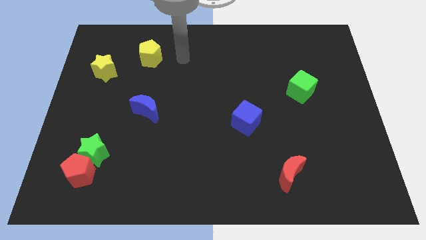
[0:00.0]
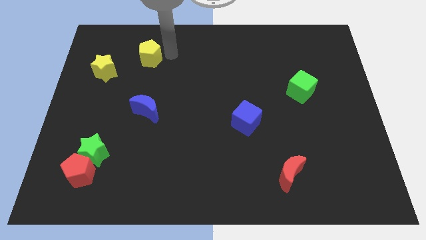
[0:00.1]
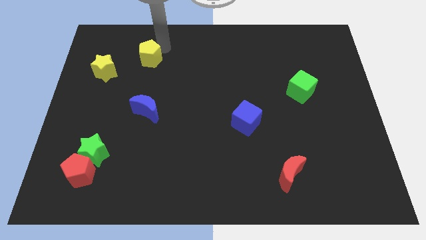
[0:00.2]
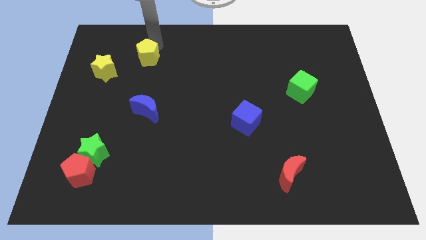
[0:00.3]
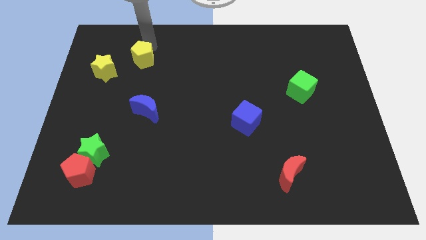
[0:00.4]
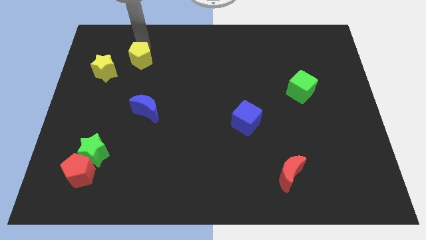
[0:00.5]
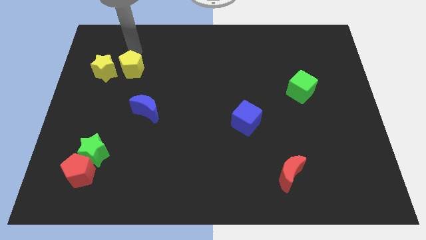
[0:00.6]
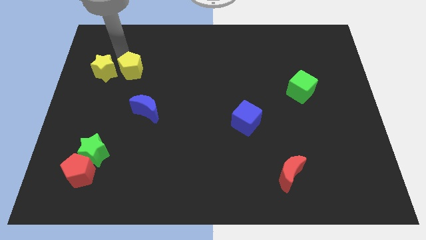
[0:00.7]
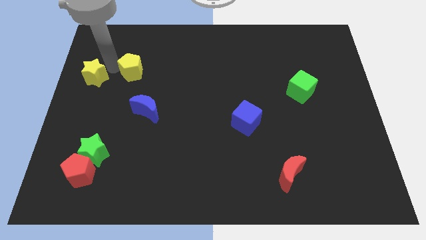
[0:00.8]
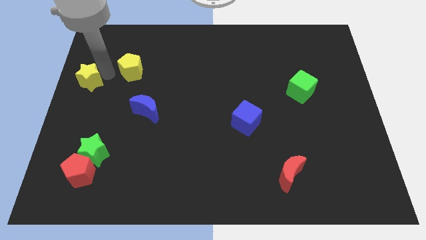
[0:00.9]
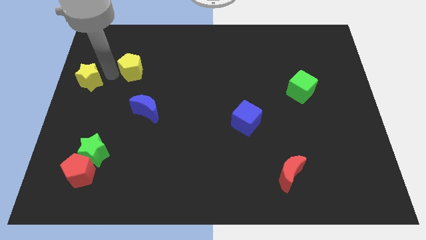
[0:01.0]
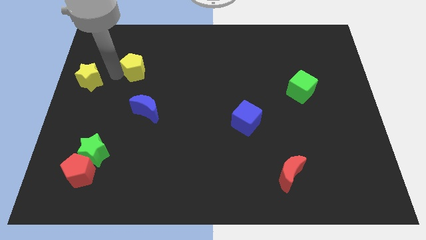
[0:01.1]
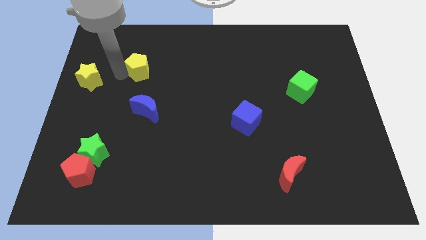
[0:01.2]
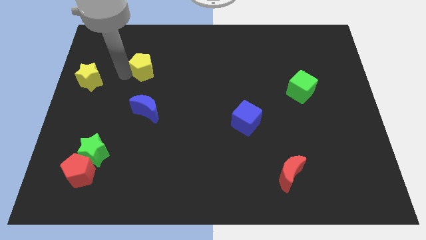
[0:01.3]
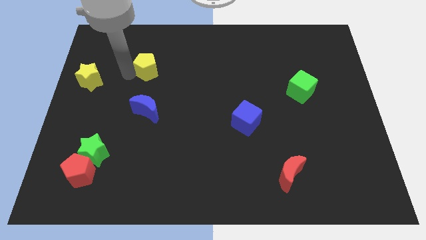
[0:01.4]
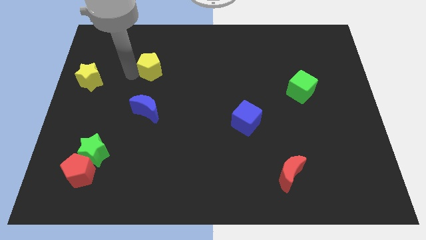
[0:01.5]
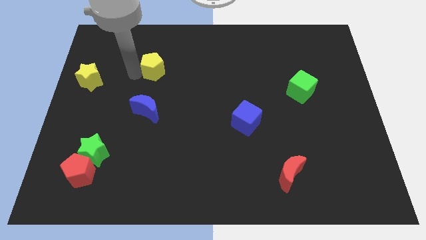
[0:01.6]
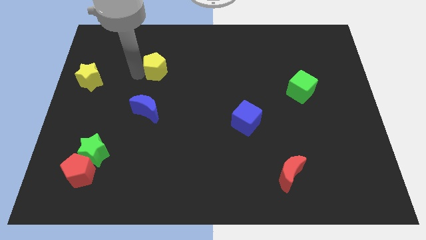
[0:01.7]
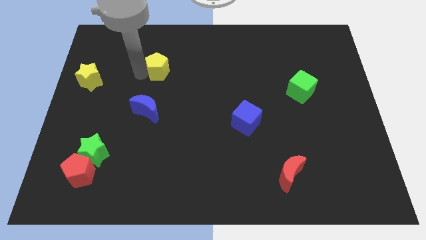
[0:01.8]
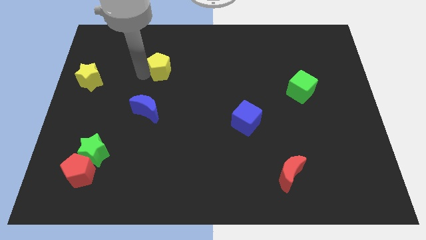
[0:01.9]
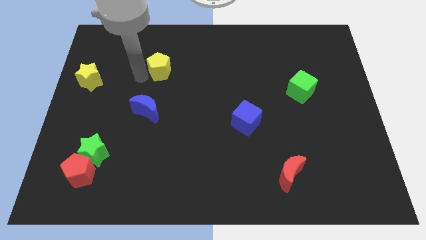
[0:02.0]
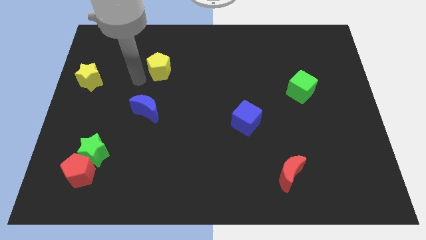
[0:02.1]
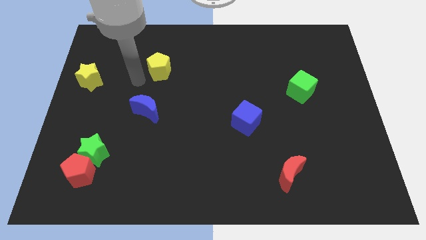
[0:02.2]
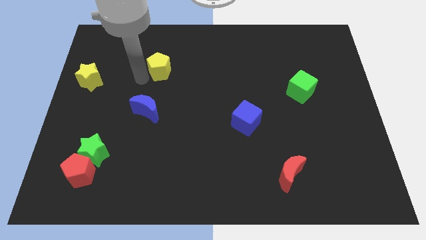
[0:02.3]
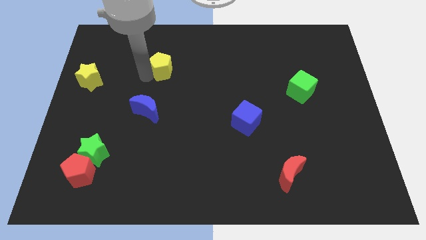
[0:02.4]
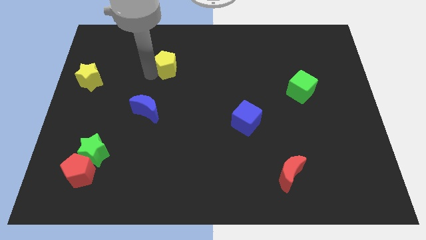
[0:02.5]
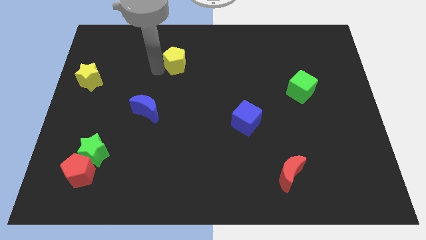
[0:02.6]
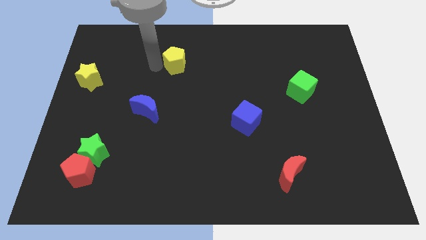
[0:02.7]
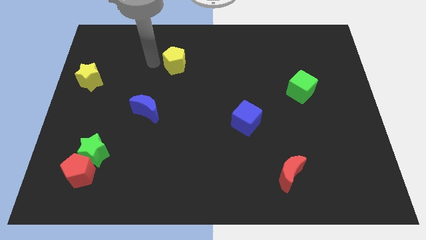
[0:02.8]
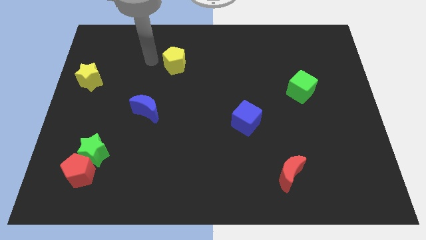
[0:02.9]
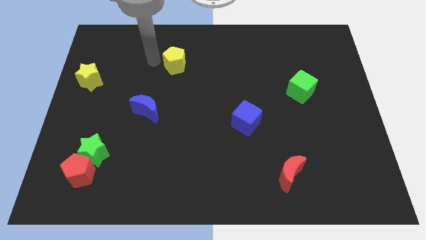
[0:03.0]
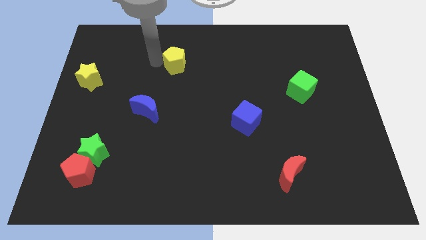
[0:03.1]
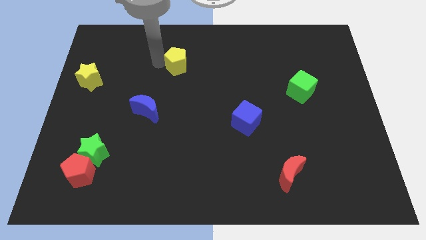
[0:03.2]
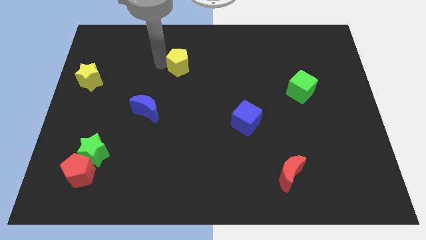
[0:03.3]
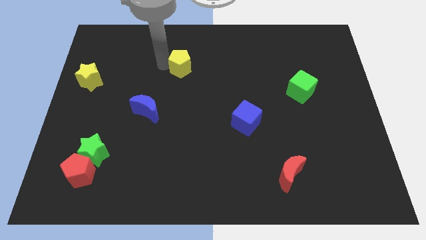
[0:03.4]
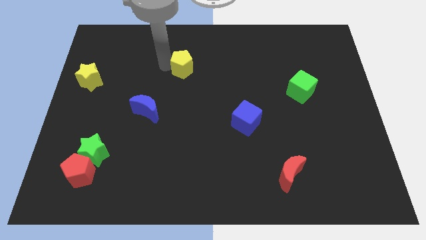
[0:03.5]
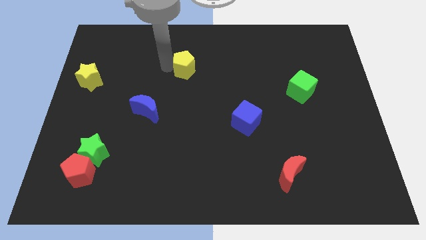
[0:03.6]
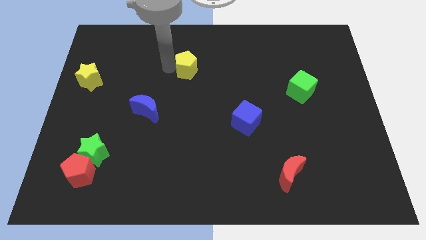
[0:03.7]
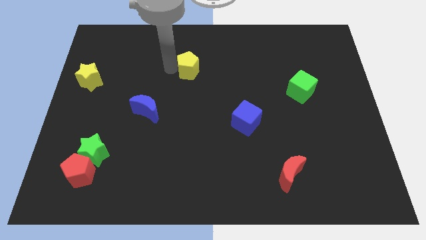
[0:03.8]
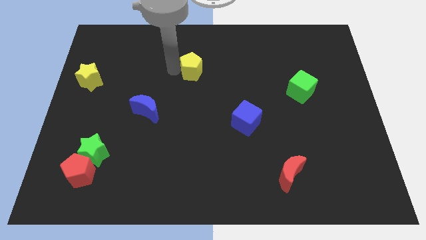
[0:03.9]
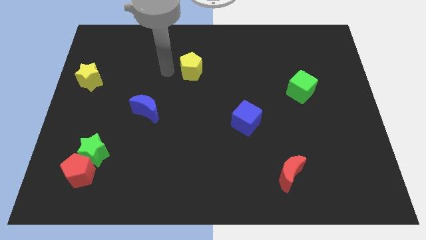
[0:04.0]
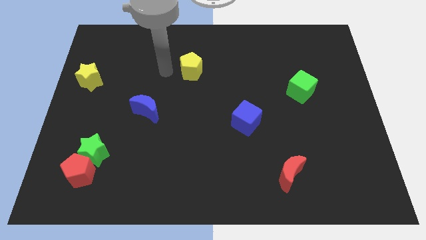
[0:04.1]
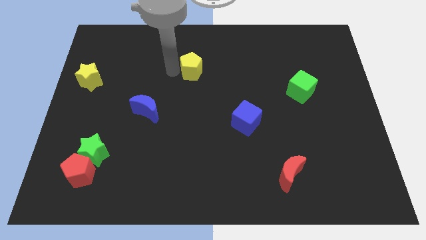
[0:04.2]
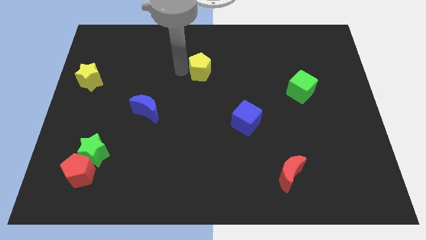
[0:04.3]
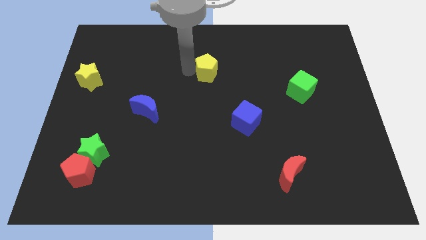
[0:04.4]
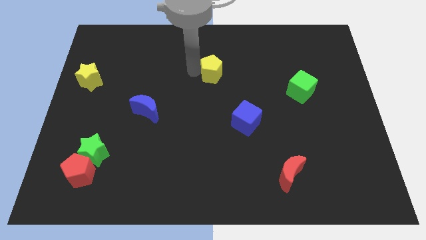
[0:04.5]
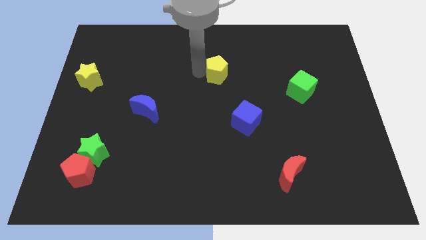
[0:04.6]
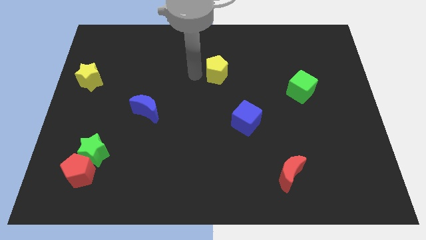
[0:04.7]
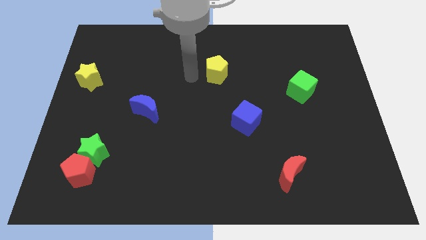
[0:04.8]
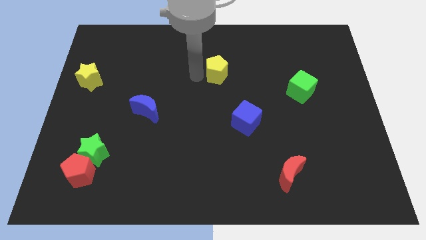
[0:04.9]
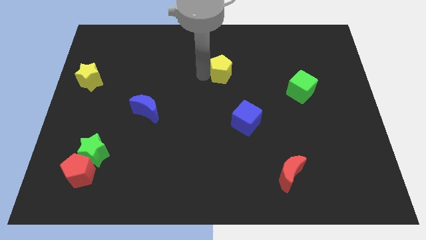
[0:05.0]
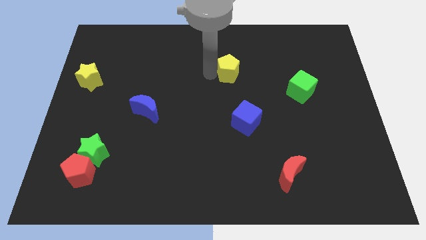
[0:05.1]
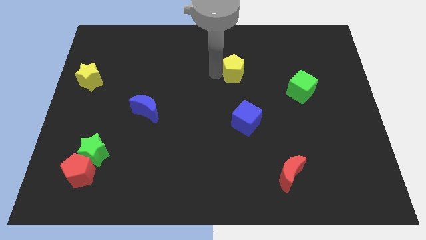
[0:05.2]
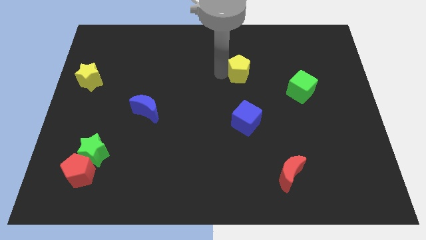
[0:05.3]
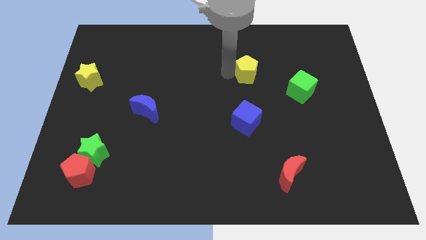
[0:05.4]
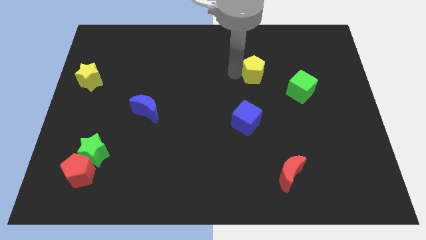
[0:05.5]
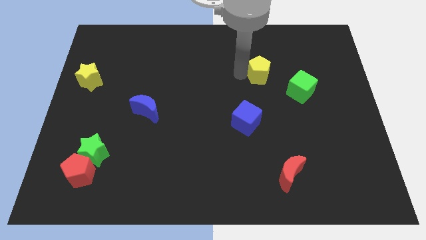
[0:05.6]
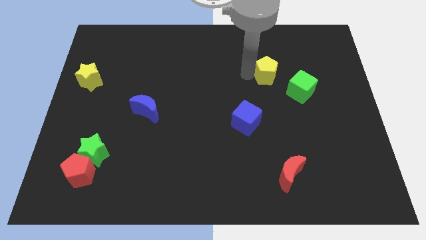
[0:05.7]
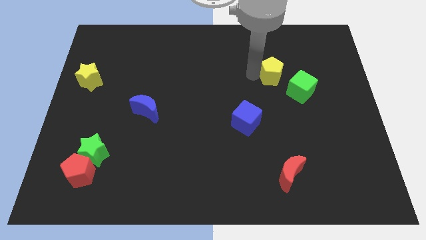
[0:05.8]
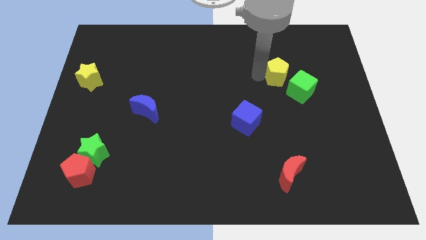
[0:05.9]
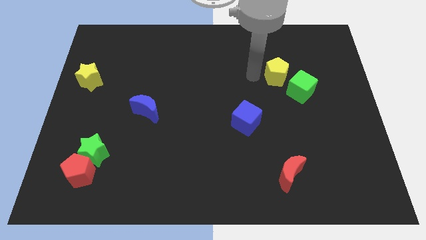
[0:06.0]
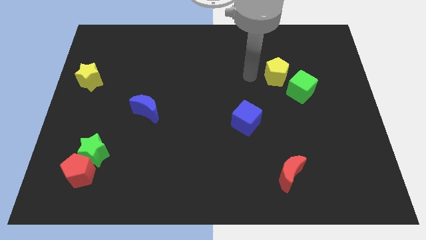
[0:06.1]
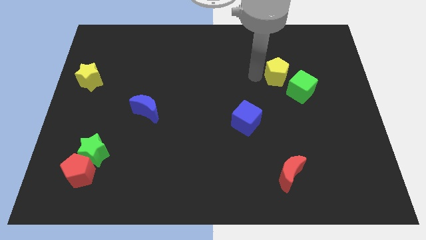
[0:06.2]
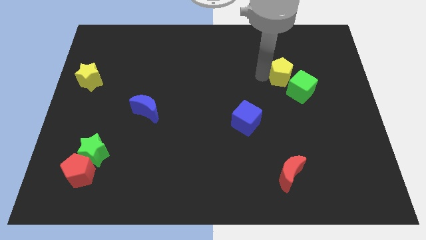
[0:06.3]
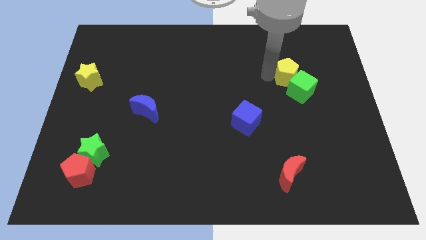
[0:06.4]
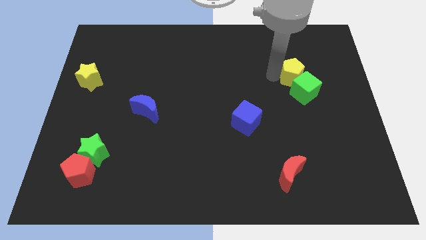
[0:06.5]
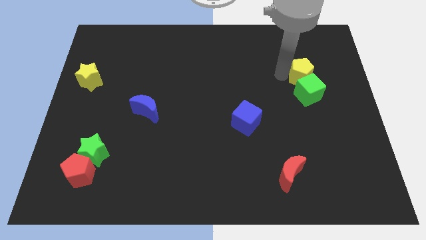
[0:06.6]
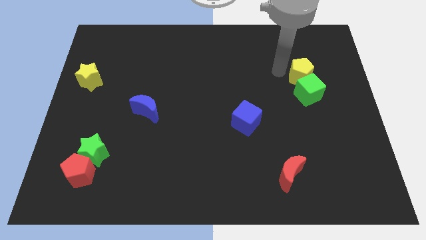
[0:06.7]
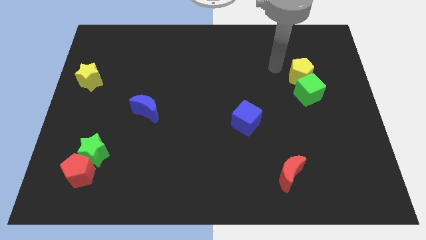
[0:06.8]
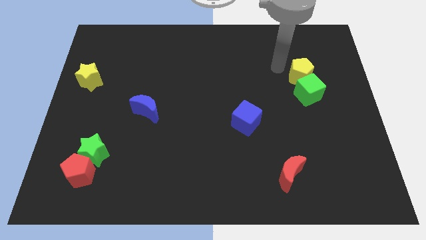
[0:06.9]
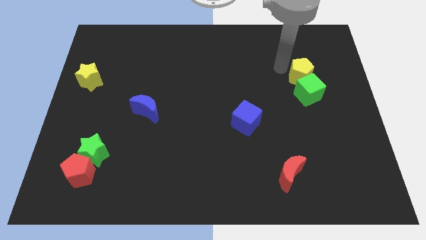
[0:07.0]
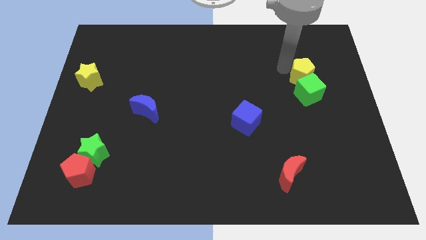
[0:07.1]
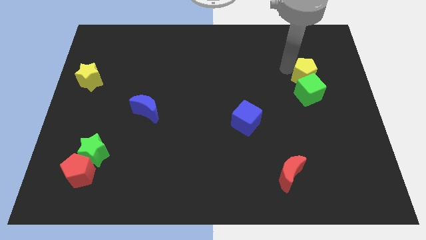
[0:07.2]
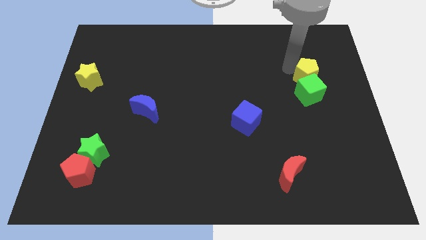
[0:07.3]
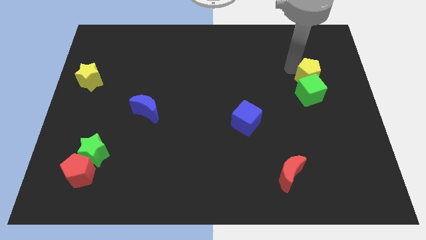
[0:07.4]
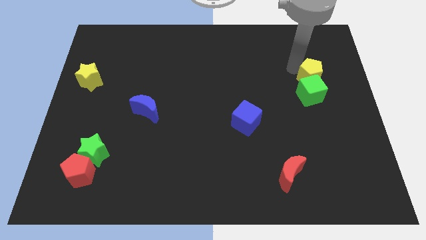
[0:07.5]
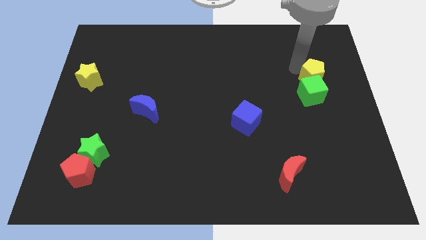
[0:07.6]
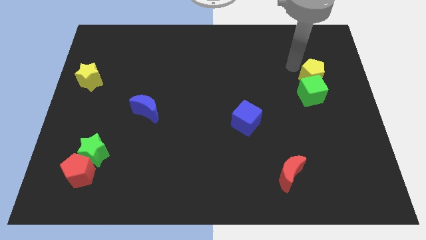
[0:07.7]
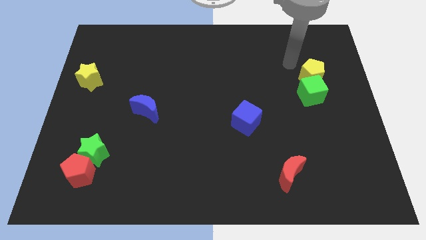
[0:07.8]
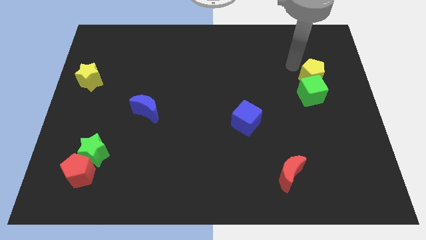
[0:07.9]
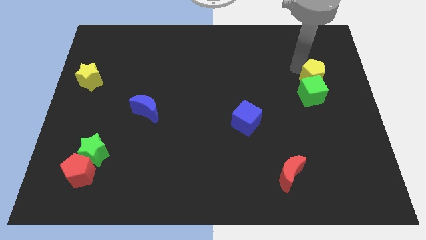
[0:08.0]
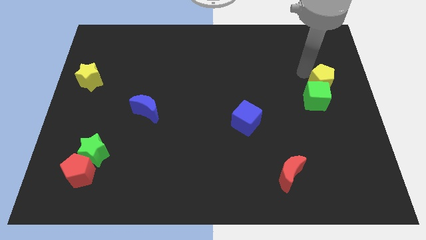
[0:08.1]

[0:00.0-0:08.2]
move the yellow pentagon to the right side
